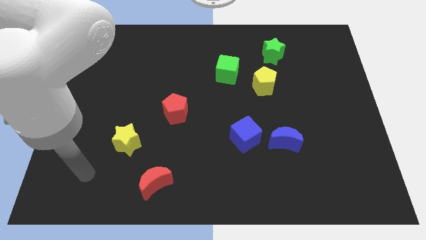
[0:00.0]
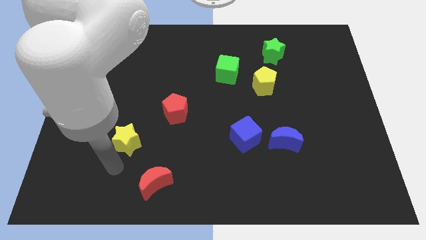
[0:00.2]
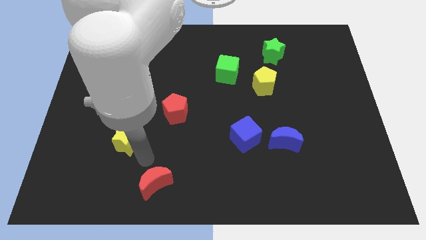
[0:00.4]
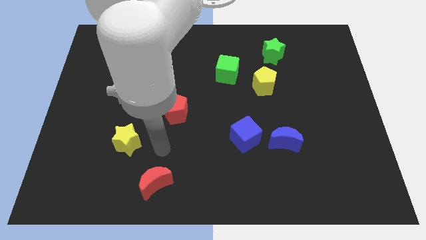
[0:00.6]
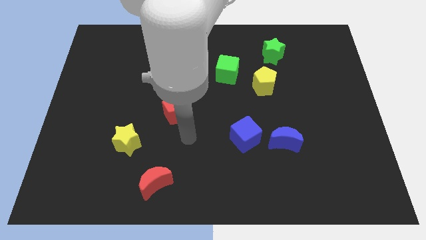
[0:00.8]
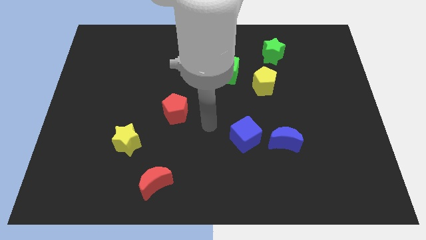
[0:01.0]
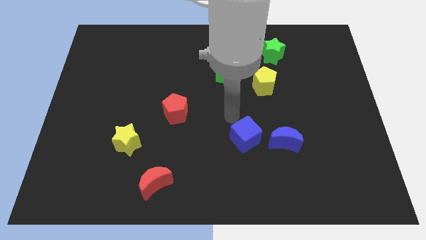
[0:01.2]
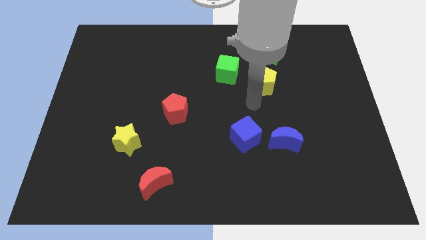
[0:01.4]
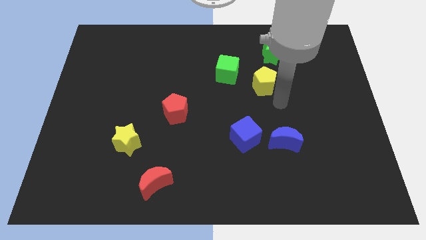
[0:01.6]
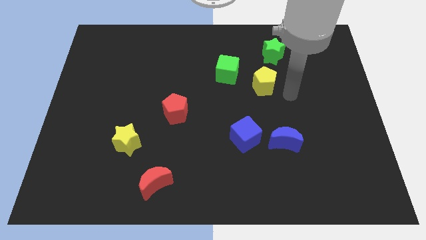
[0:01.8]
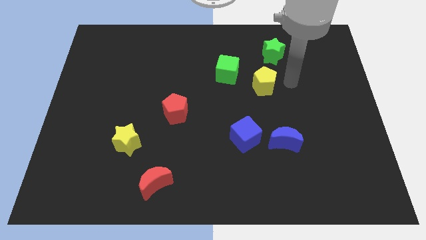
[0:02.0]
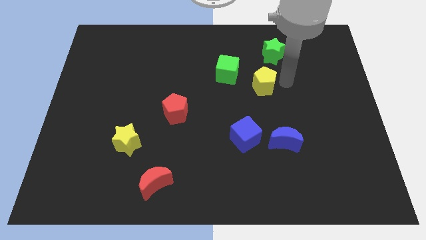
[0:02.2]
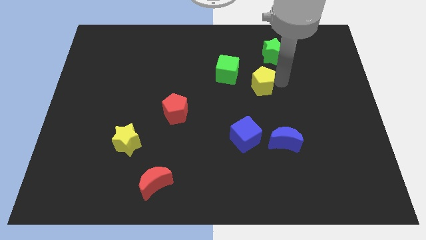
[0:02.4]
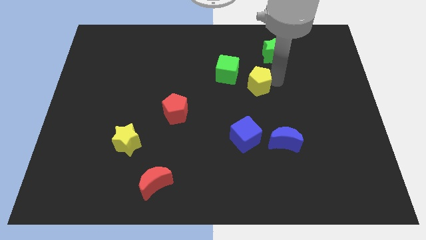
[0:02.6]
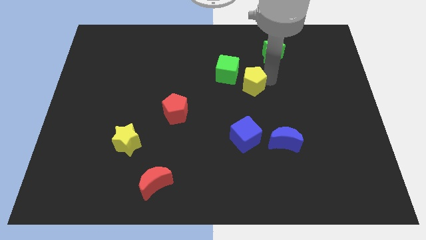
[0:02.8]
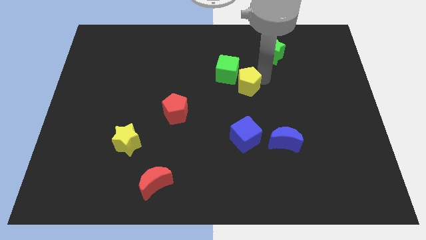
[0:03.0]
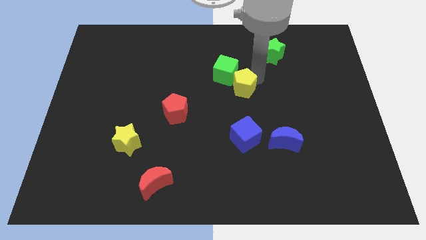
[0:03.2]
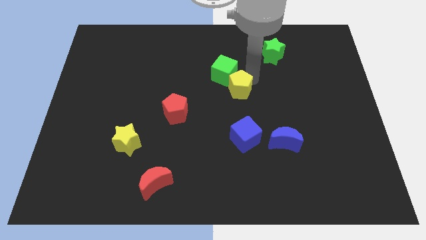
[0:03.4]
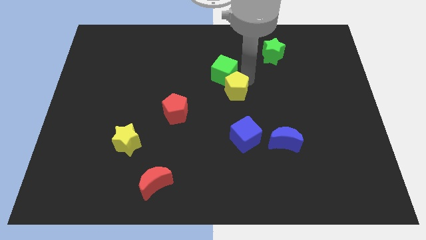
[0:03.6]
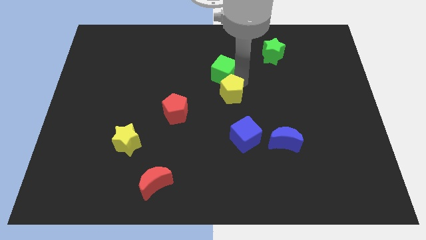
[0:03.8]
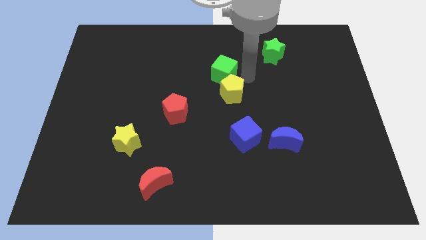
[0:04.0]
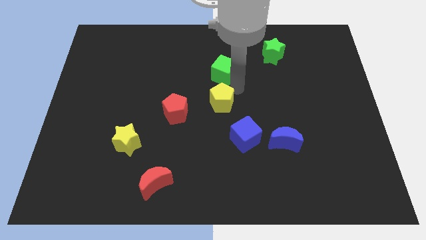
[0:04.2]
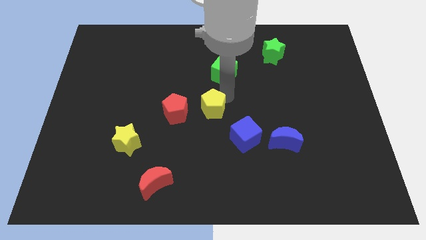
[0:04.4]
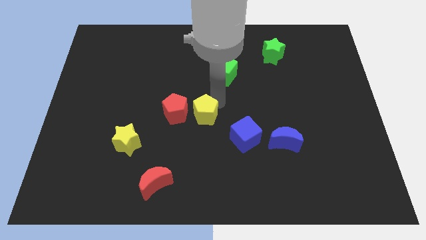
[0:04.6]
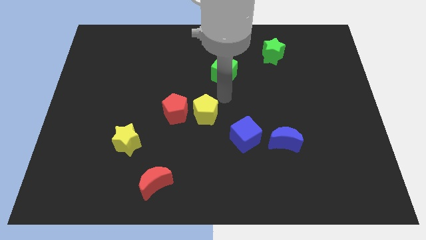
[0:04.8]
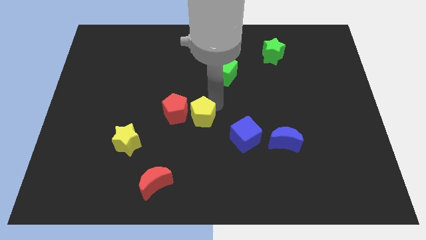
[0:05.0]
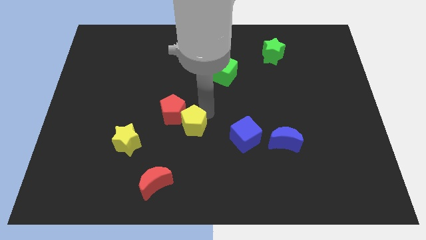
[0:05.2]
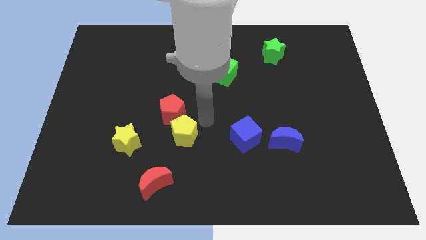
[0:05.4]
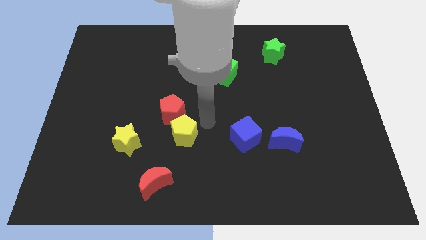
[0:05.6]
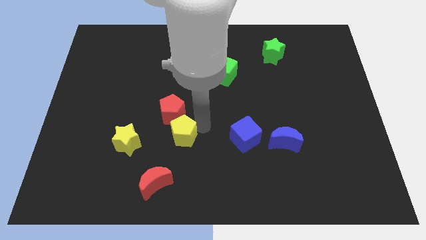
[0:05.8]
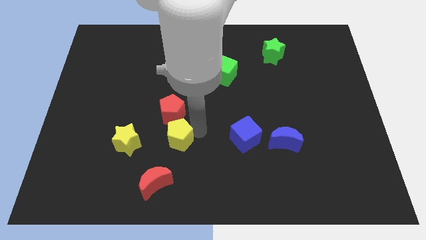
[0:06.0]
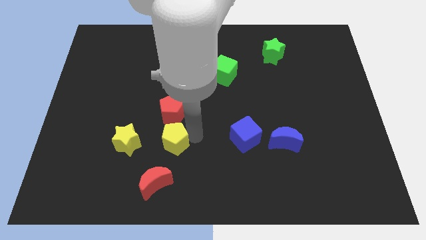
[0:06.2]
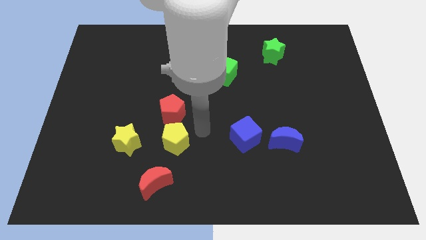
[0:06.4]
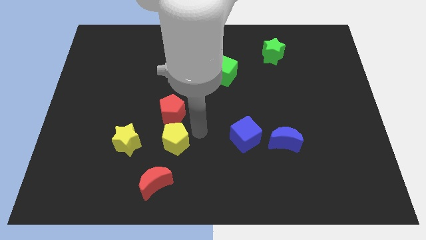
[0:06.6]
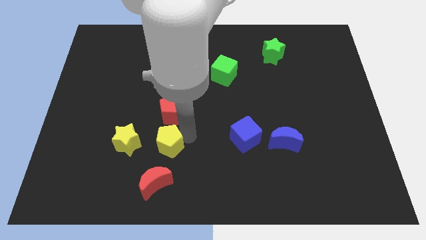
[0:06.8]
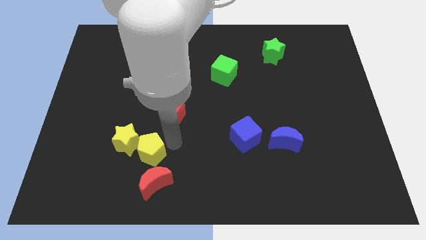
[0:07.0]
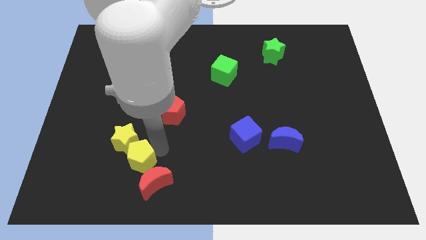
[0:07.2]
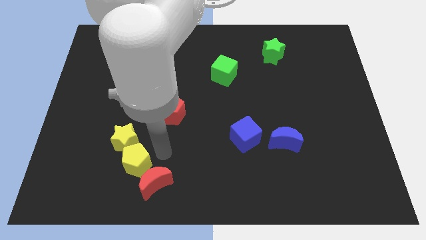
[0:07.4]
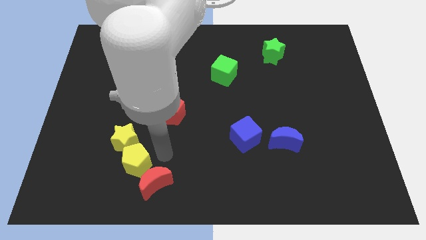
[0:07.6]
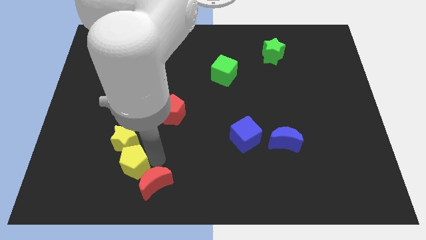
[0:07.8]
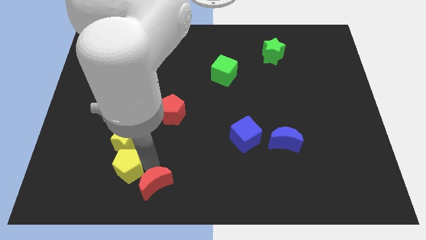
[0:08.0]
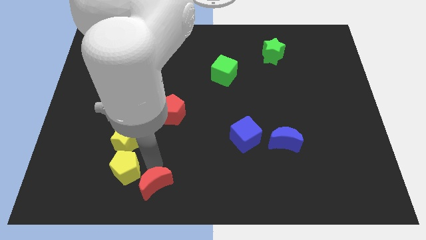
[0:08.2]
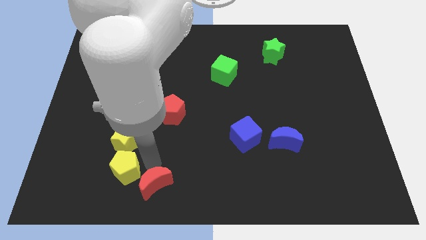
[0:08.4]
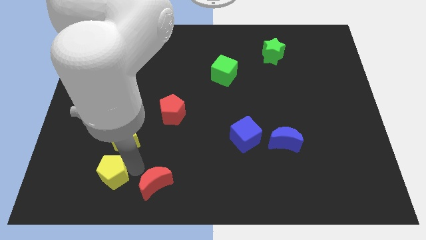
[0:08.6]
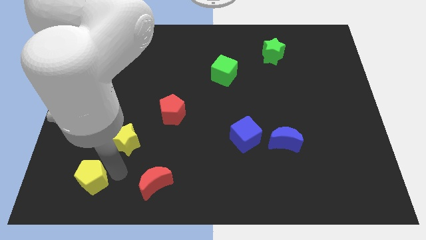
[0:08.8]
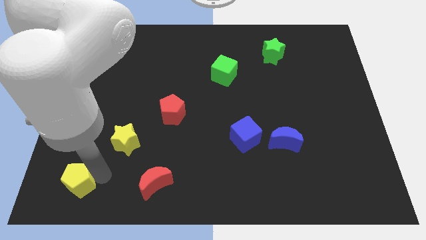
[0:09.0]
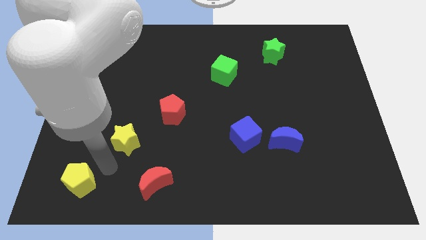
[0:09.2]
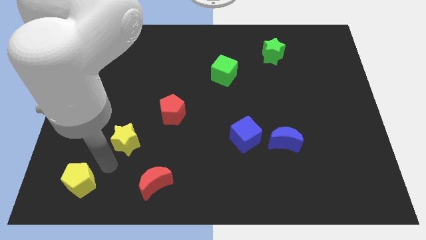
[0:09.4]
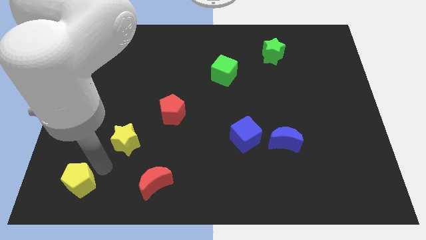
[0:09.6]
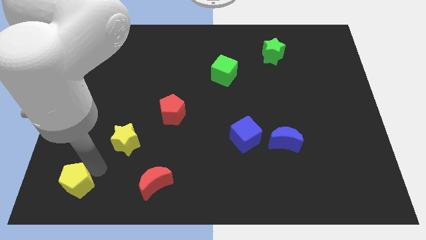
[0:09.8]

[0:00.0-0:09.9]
move the yellow pentagon to the bottom left of the board

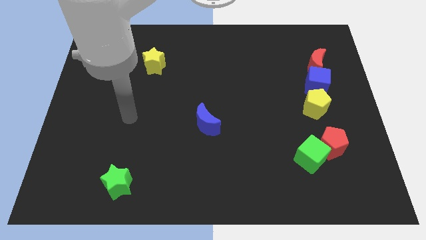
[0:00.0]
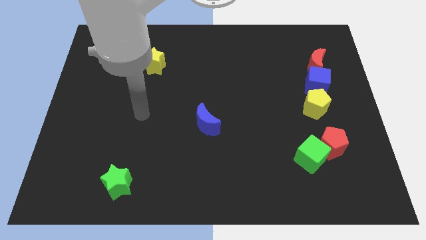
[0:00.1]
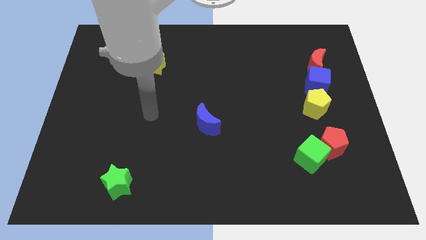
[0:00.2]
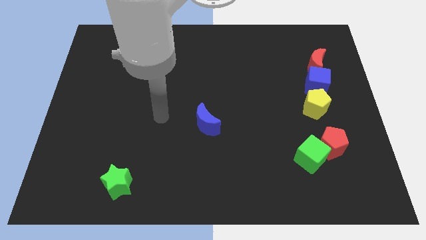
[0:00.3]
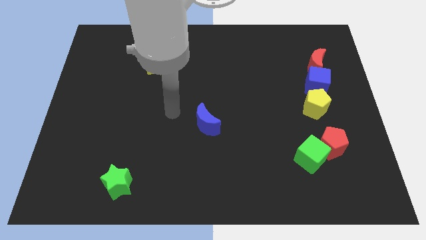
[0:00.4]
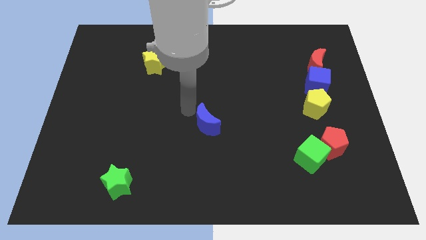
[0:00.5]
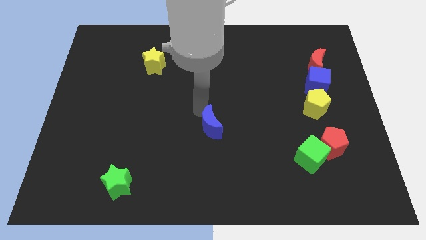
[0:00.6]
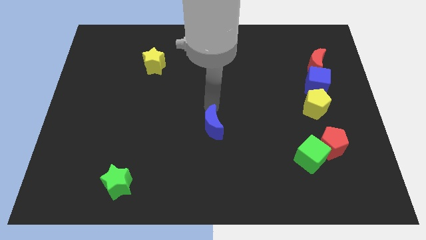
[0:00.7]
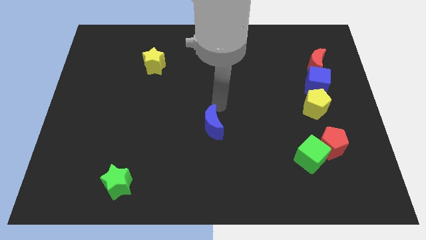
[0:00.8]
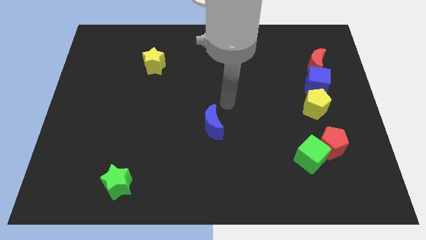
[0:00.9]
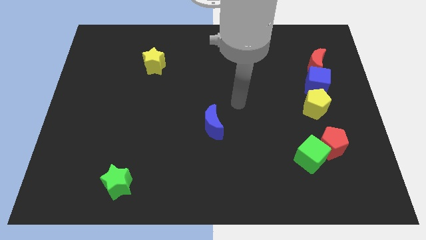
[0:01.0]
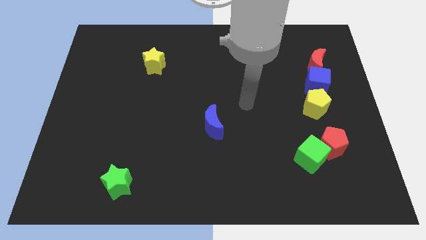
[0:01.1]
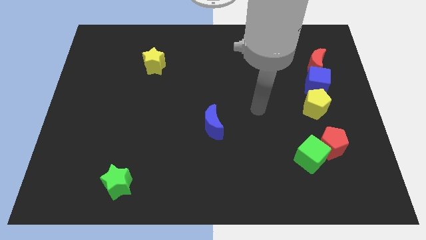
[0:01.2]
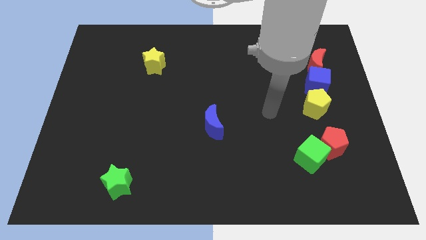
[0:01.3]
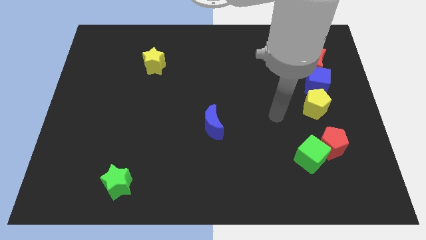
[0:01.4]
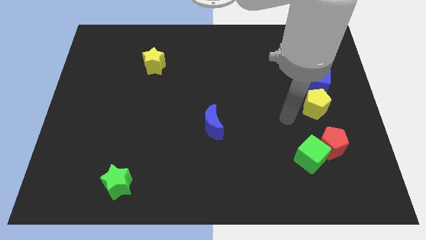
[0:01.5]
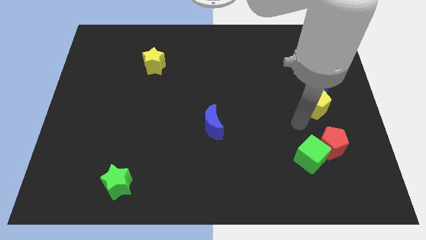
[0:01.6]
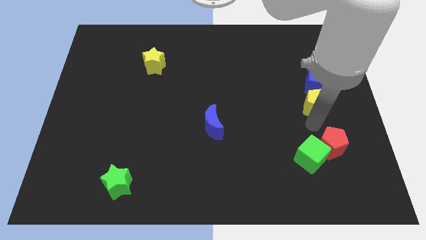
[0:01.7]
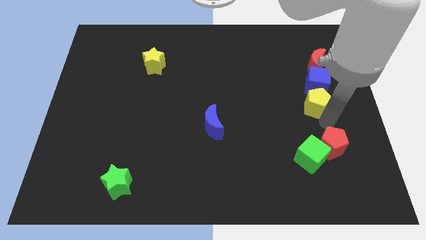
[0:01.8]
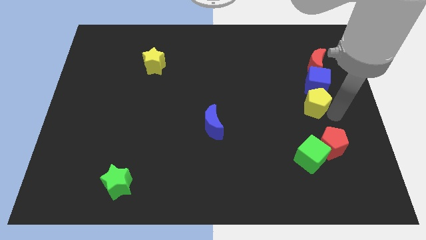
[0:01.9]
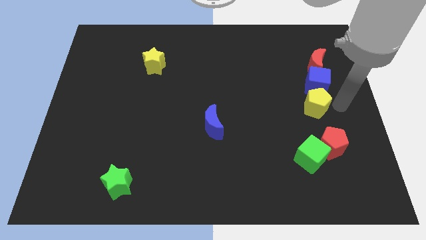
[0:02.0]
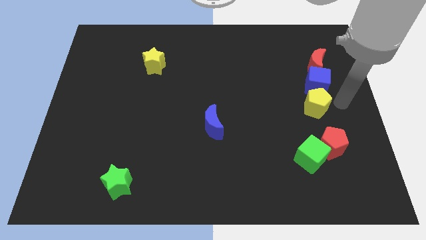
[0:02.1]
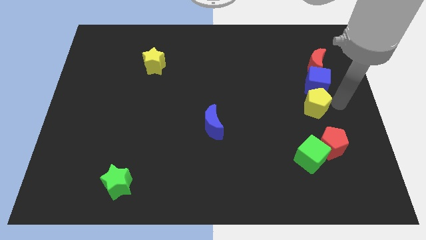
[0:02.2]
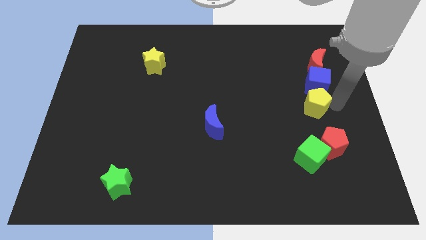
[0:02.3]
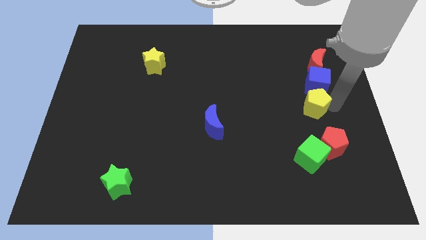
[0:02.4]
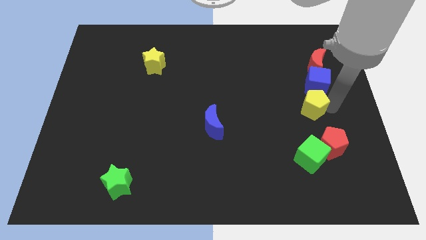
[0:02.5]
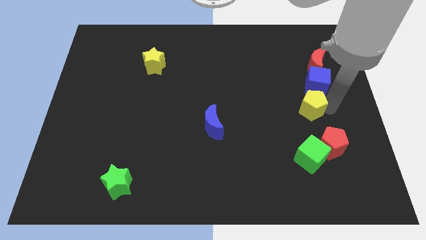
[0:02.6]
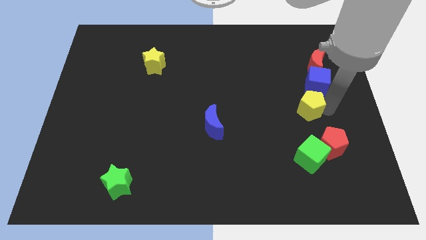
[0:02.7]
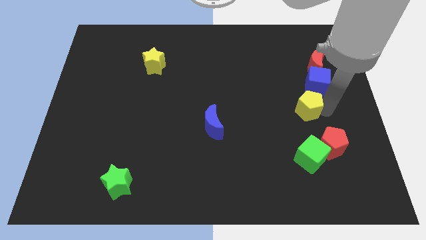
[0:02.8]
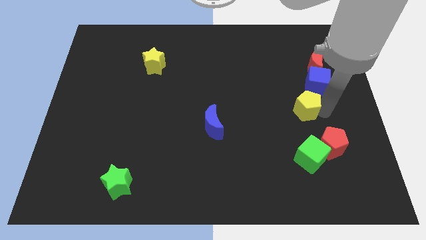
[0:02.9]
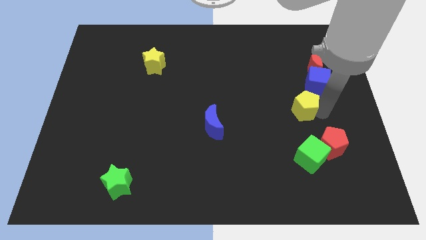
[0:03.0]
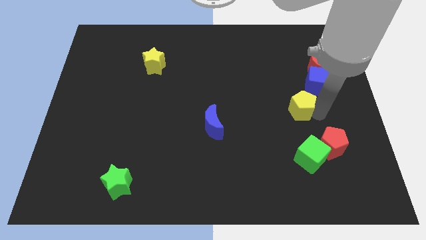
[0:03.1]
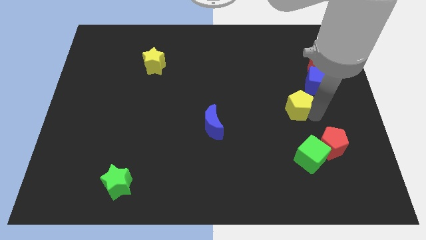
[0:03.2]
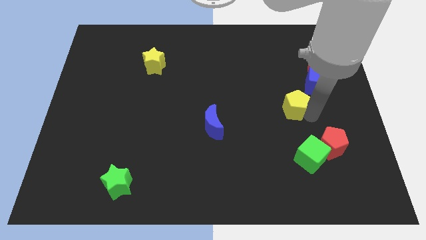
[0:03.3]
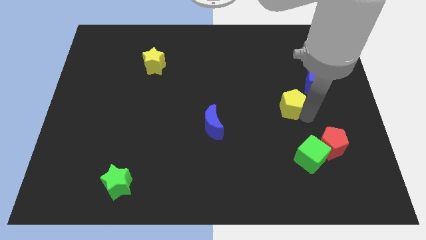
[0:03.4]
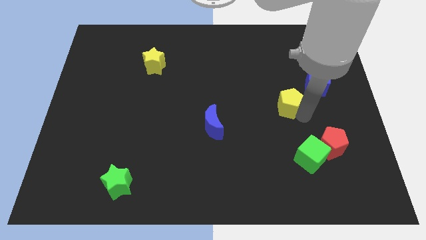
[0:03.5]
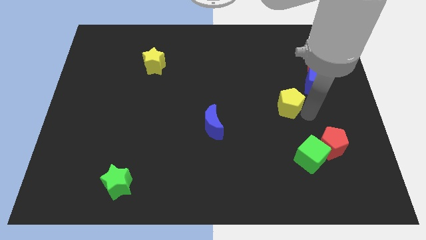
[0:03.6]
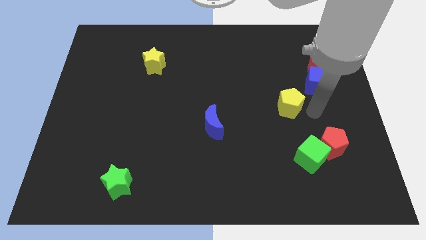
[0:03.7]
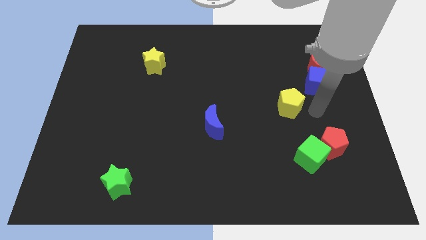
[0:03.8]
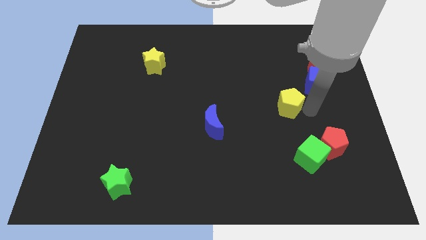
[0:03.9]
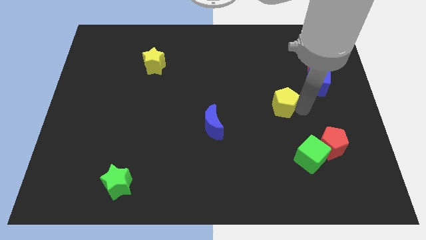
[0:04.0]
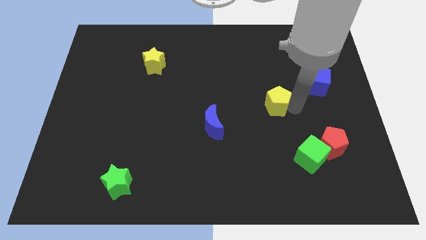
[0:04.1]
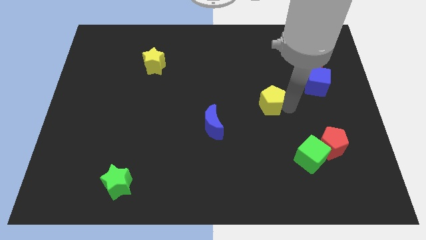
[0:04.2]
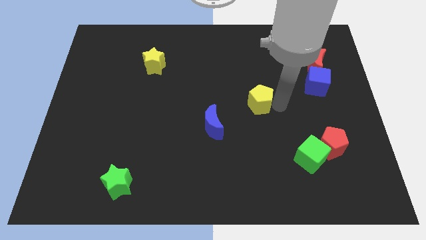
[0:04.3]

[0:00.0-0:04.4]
slide the yellow pentagon to the center
